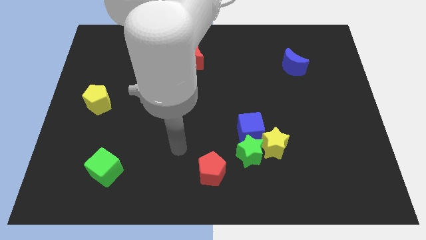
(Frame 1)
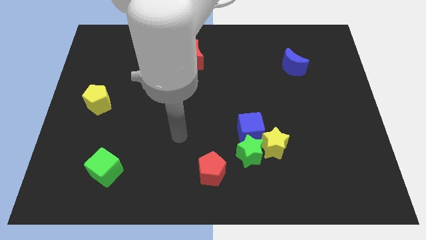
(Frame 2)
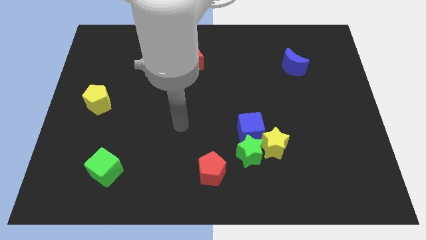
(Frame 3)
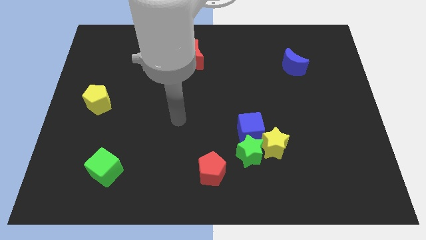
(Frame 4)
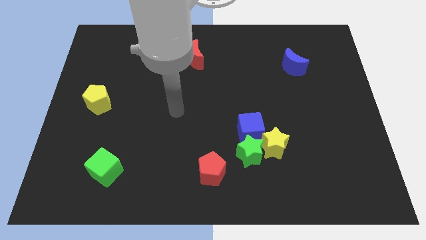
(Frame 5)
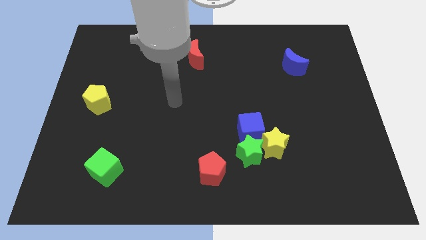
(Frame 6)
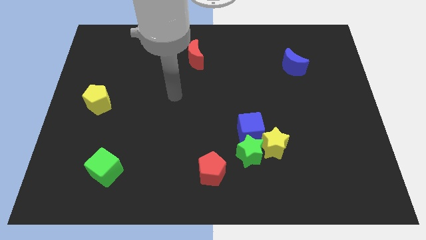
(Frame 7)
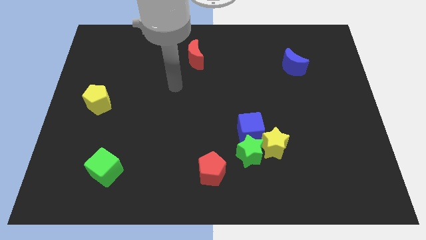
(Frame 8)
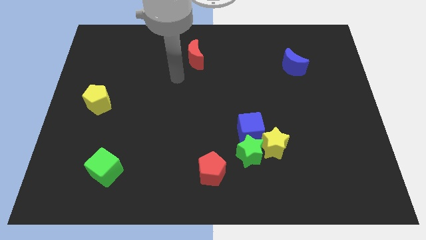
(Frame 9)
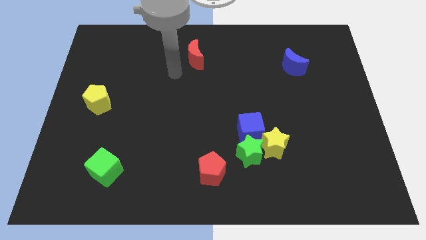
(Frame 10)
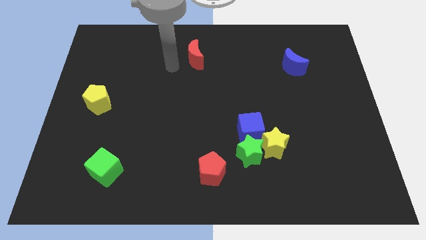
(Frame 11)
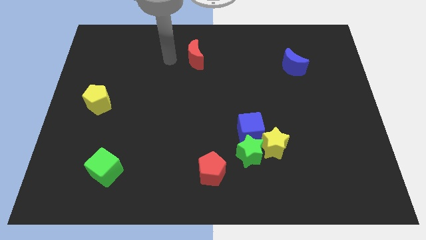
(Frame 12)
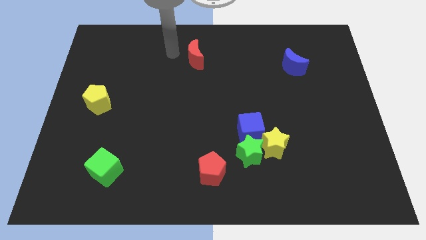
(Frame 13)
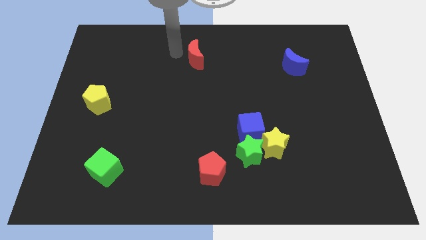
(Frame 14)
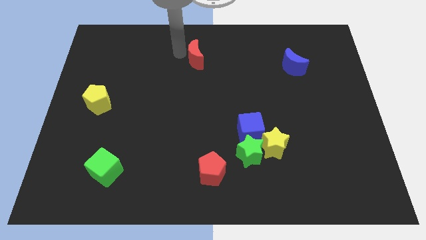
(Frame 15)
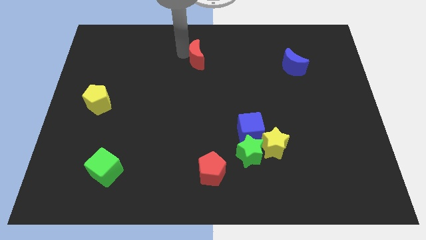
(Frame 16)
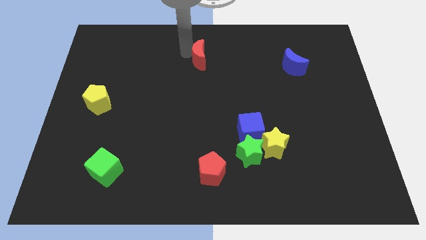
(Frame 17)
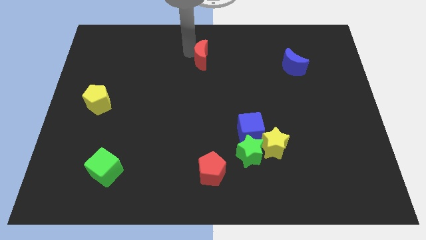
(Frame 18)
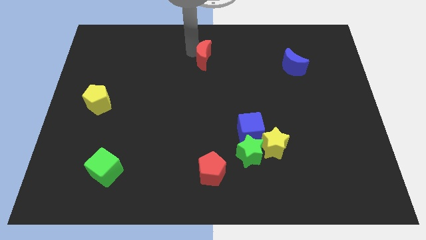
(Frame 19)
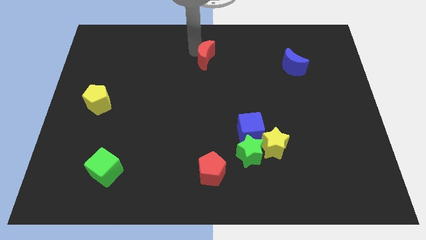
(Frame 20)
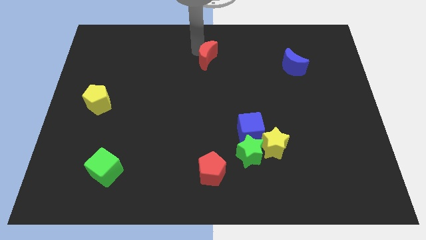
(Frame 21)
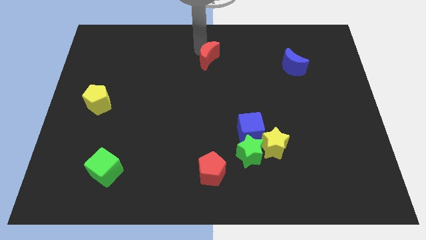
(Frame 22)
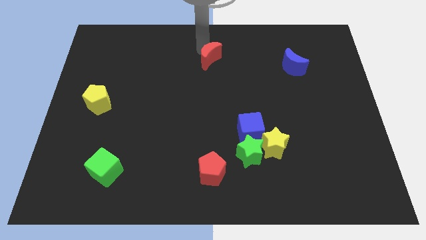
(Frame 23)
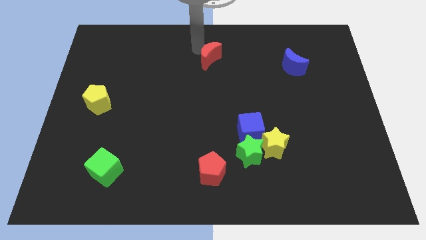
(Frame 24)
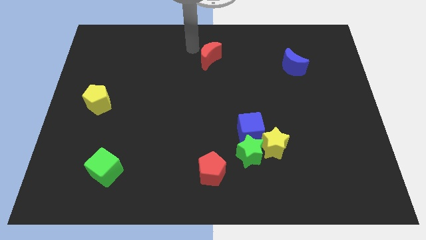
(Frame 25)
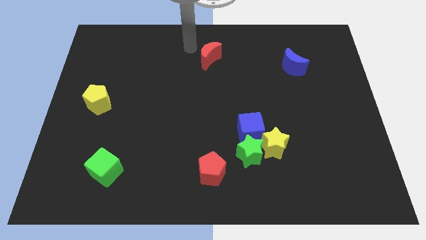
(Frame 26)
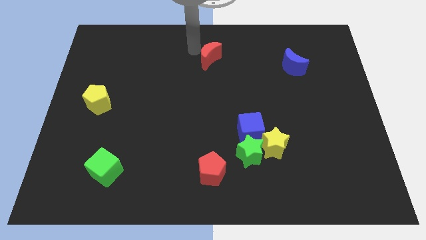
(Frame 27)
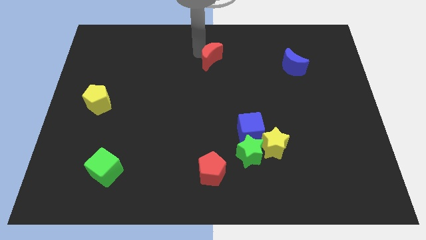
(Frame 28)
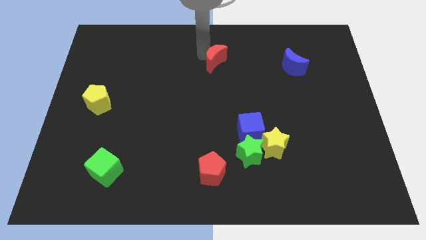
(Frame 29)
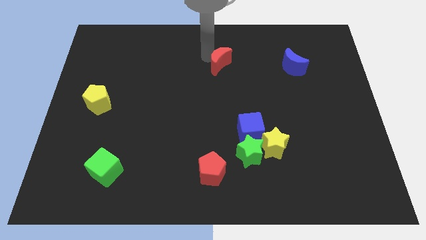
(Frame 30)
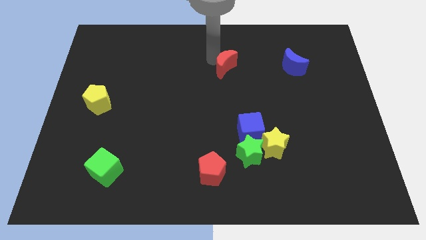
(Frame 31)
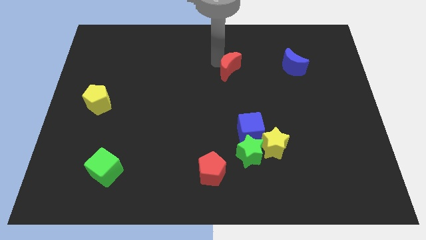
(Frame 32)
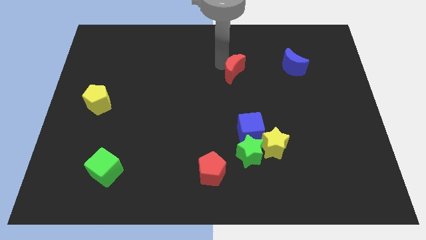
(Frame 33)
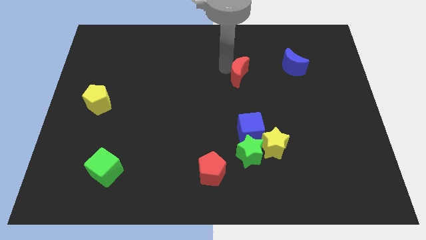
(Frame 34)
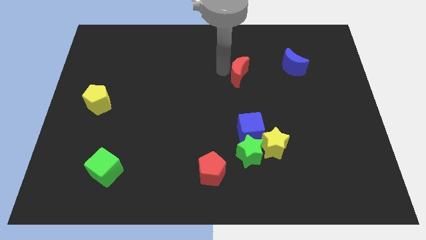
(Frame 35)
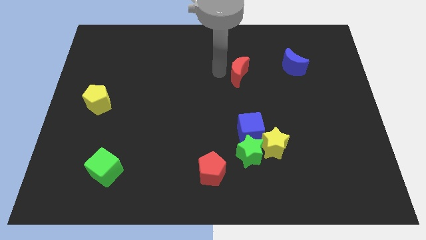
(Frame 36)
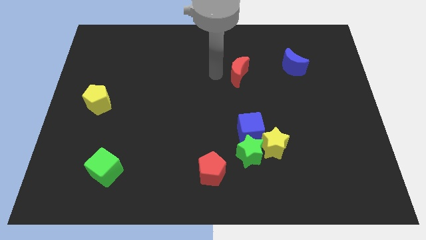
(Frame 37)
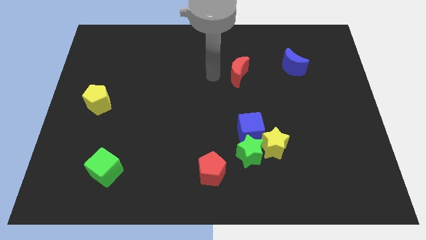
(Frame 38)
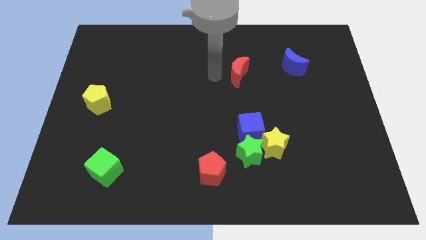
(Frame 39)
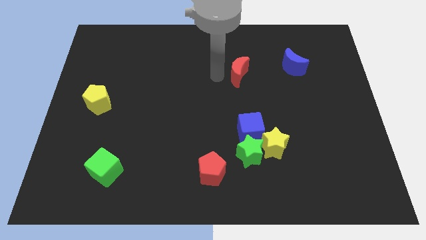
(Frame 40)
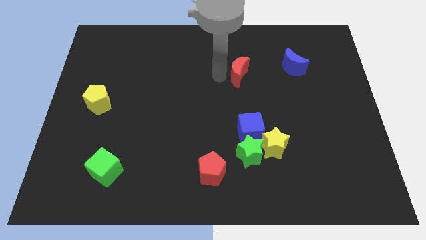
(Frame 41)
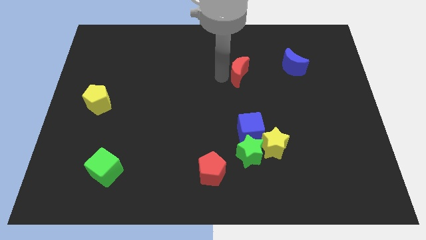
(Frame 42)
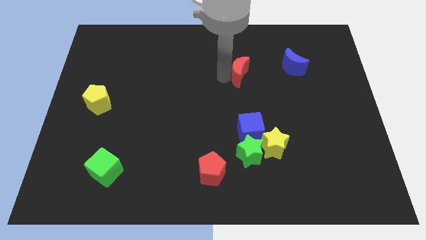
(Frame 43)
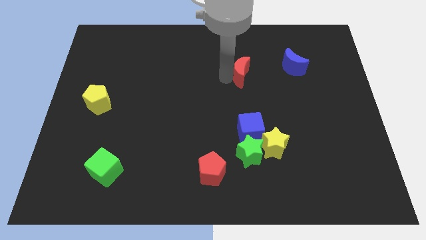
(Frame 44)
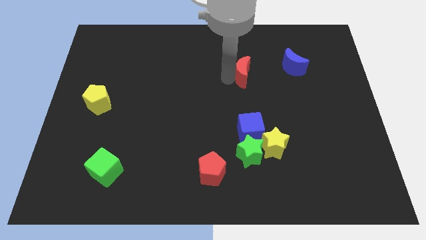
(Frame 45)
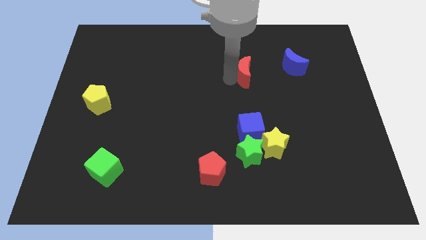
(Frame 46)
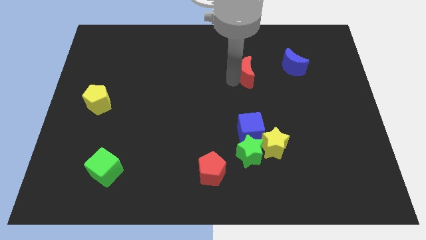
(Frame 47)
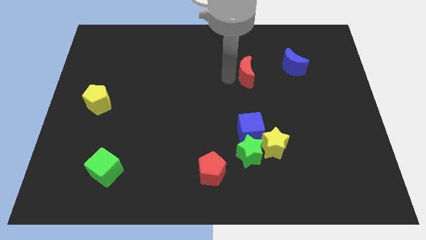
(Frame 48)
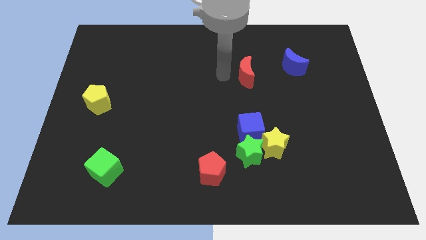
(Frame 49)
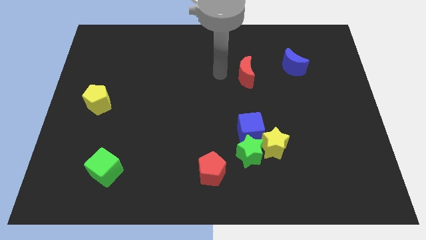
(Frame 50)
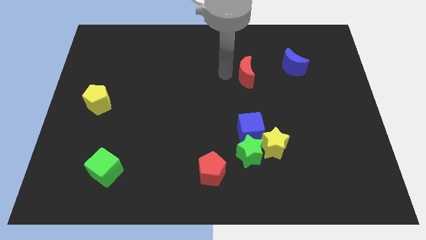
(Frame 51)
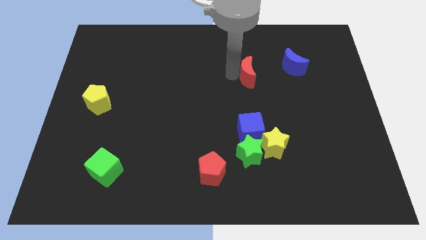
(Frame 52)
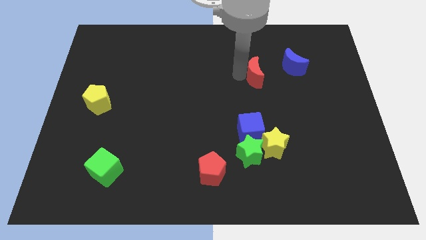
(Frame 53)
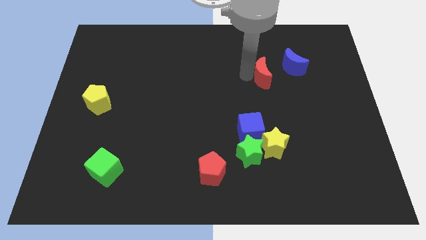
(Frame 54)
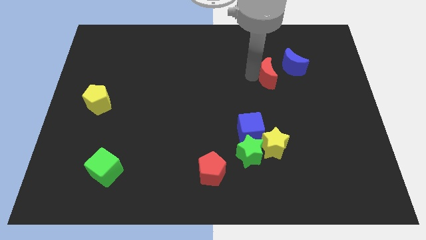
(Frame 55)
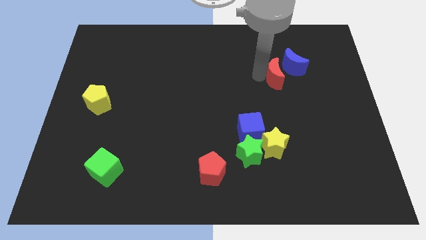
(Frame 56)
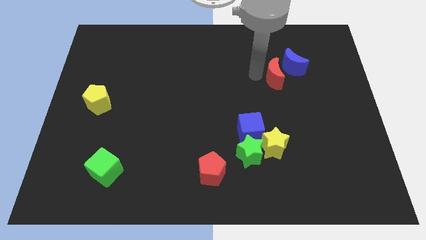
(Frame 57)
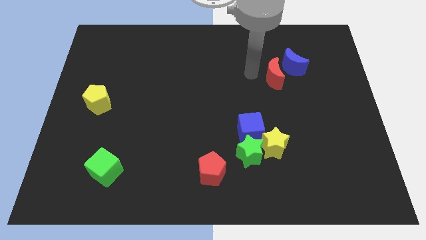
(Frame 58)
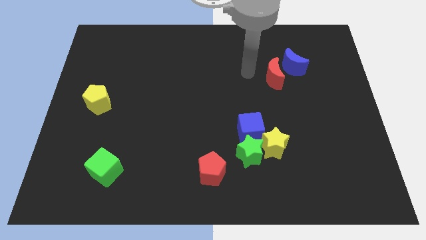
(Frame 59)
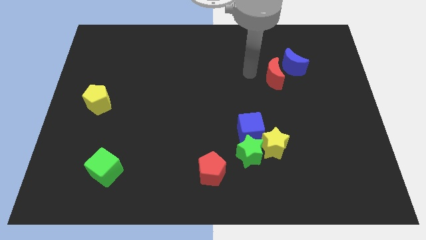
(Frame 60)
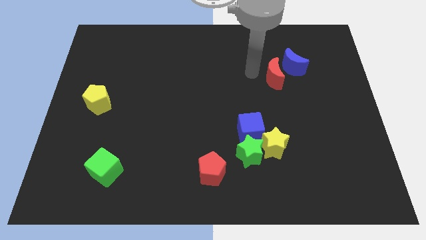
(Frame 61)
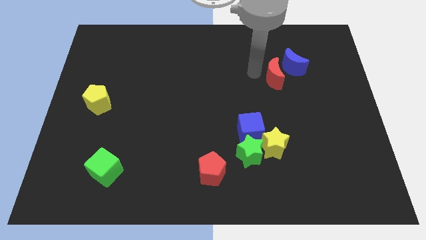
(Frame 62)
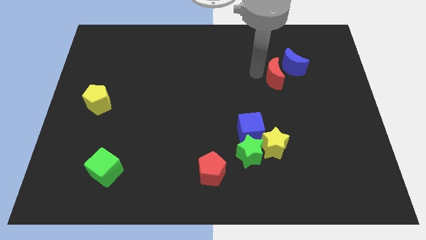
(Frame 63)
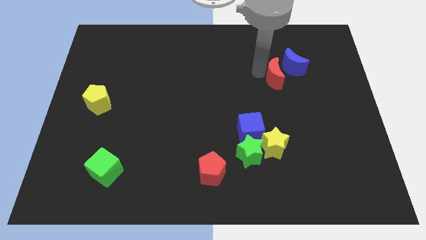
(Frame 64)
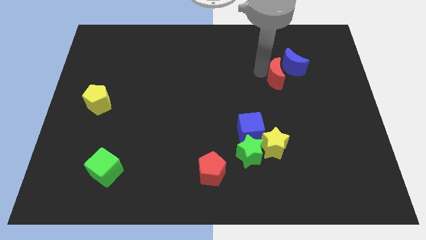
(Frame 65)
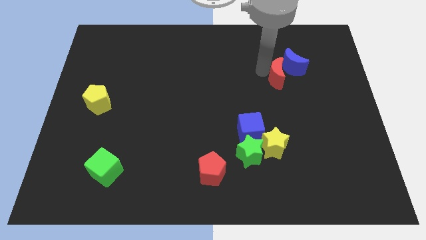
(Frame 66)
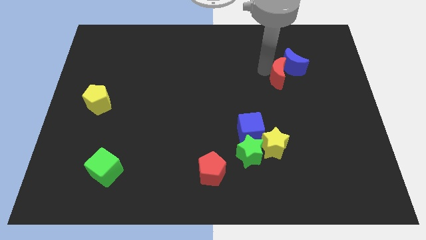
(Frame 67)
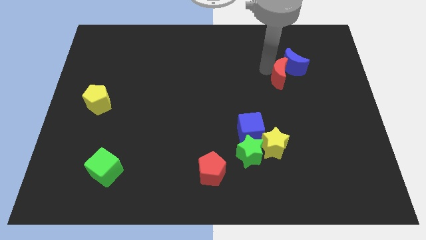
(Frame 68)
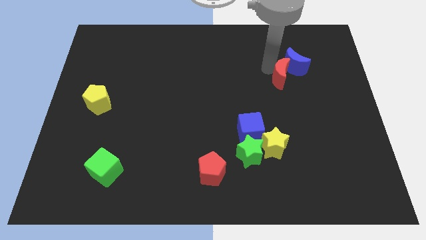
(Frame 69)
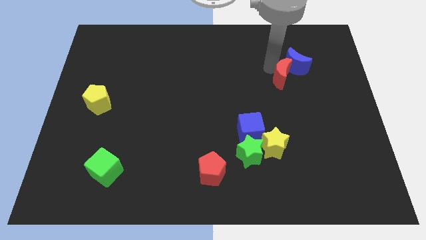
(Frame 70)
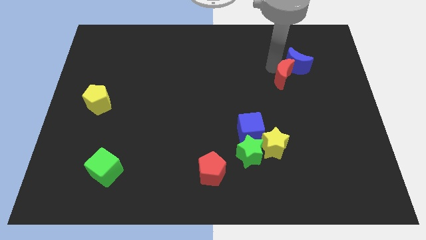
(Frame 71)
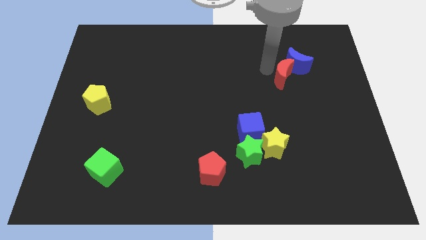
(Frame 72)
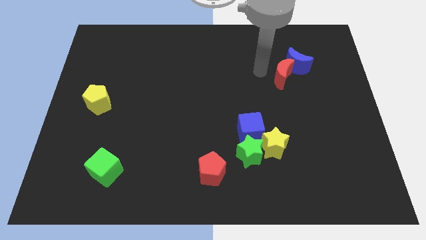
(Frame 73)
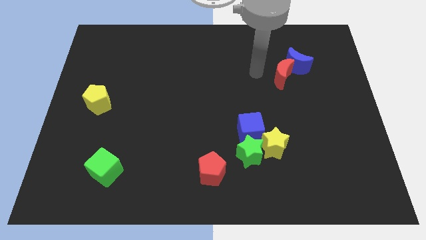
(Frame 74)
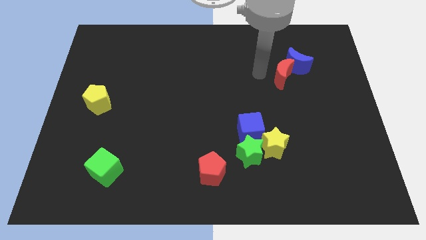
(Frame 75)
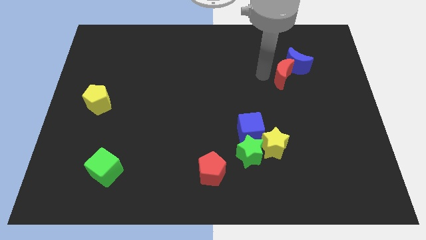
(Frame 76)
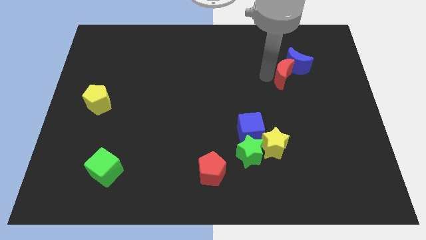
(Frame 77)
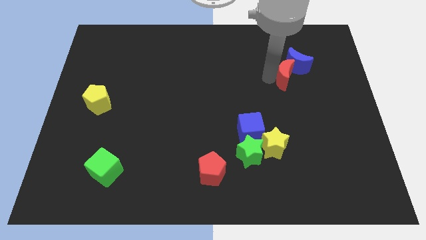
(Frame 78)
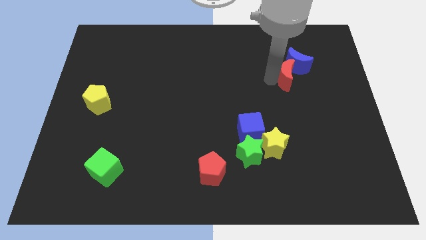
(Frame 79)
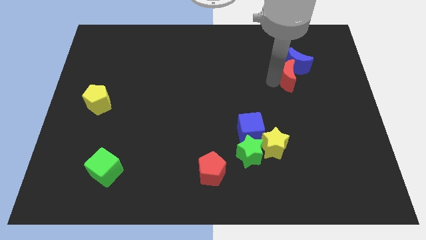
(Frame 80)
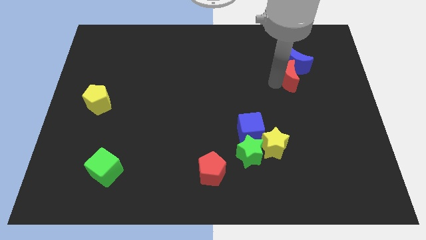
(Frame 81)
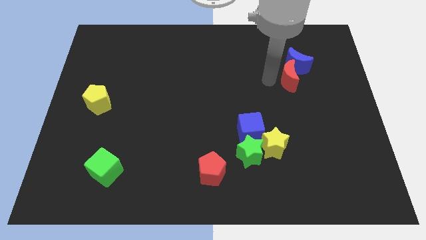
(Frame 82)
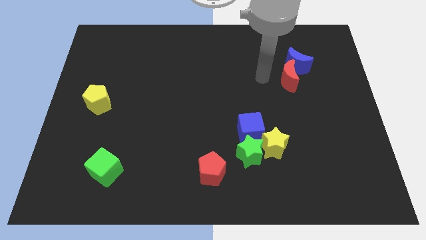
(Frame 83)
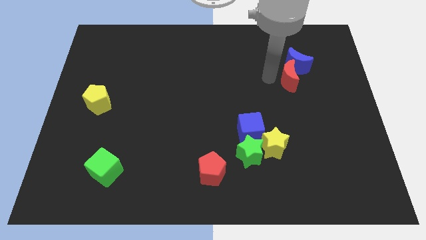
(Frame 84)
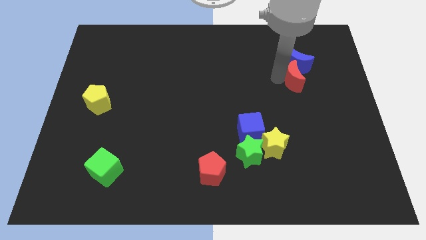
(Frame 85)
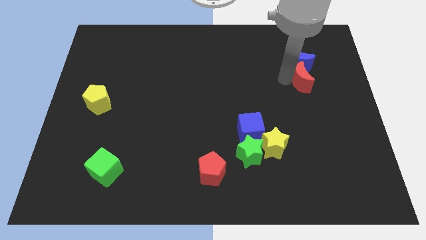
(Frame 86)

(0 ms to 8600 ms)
push the red moon diagonally down and to the right of the blue moon
